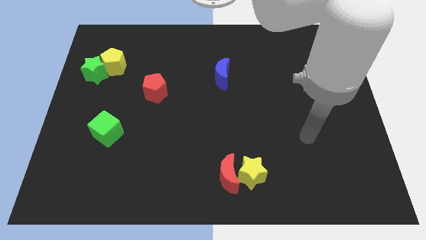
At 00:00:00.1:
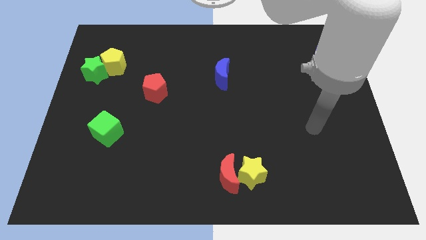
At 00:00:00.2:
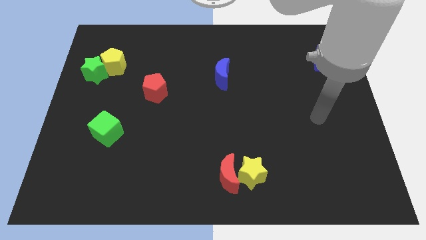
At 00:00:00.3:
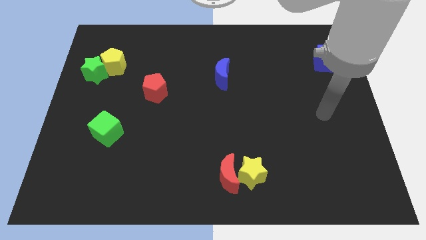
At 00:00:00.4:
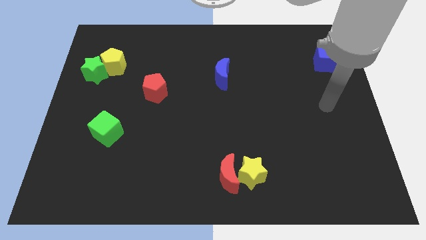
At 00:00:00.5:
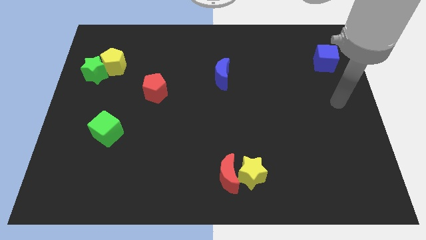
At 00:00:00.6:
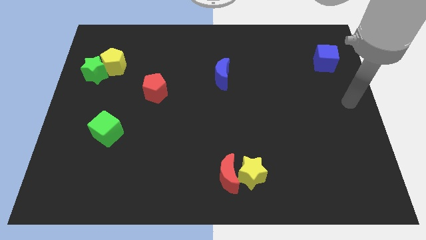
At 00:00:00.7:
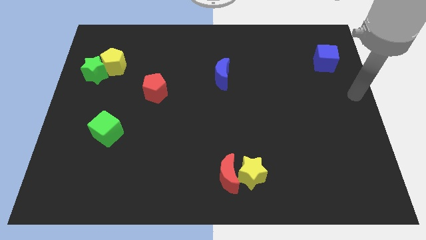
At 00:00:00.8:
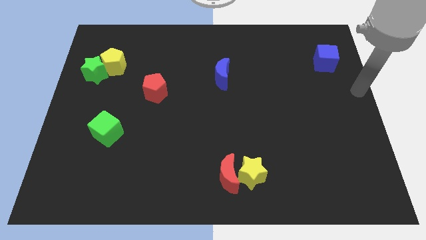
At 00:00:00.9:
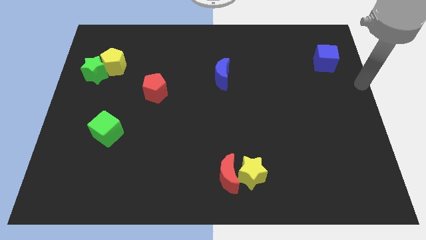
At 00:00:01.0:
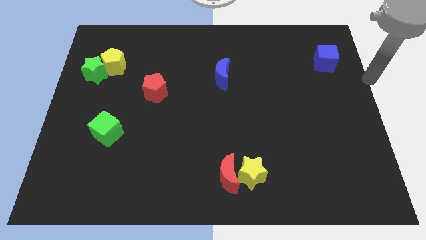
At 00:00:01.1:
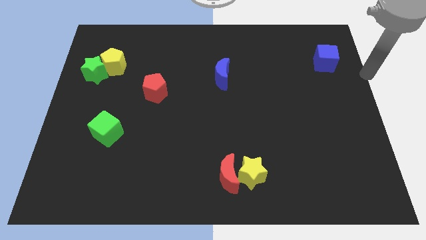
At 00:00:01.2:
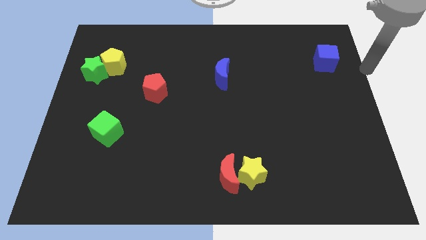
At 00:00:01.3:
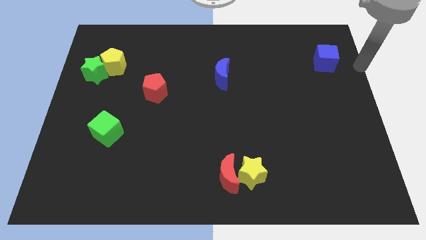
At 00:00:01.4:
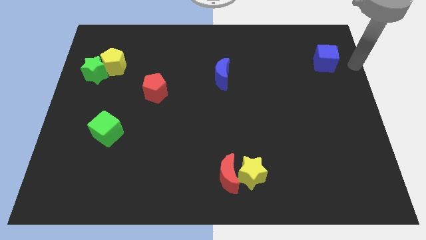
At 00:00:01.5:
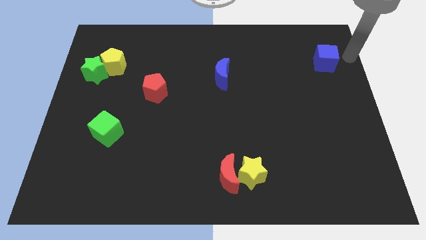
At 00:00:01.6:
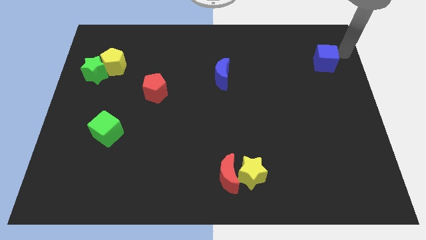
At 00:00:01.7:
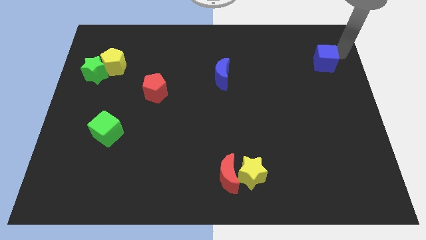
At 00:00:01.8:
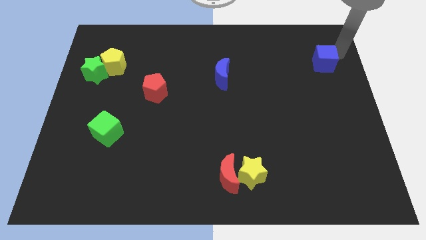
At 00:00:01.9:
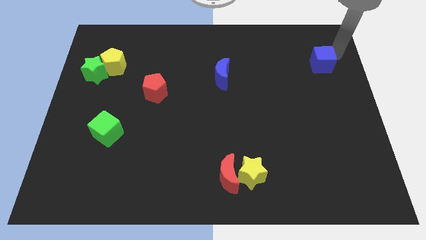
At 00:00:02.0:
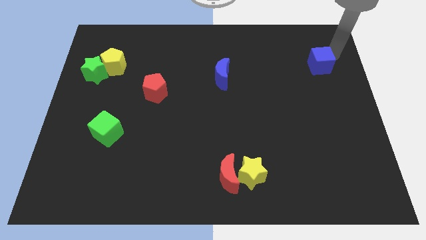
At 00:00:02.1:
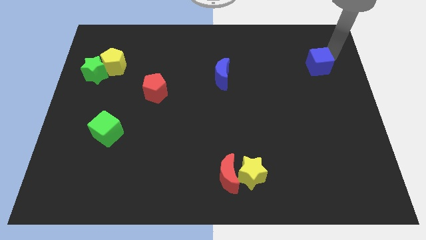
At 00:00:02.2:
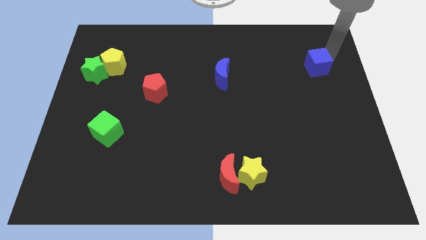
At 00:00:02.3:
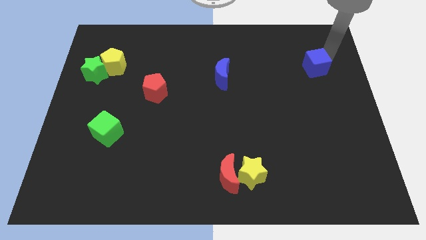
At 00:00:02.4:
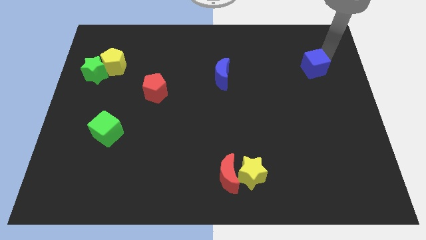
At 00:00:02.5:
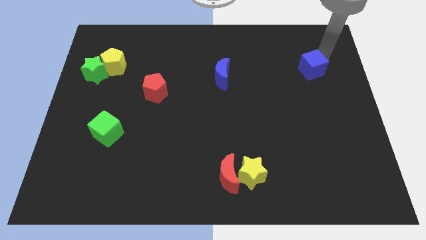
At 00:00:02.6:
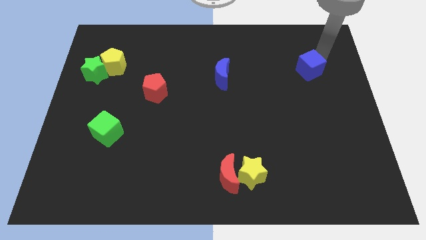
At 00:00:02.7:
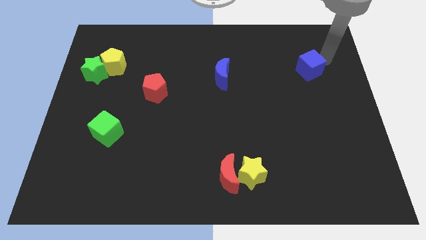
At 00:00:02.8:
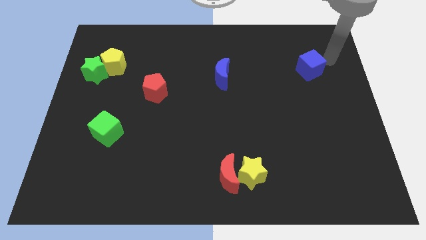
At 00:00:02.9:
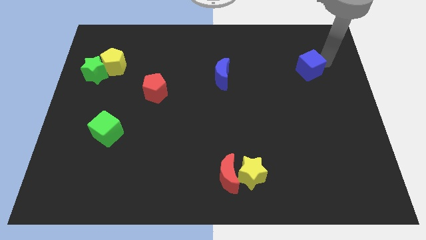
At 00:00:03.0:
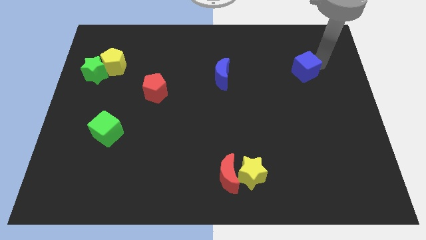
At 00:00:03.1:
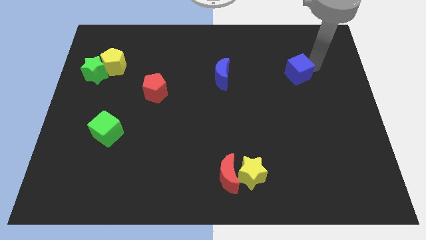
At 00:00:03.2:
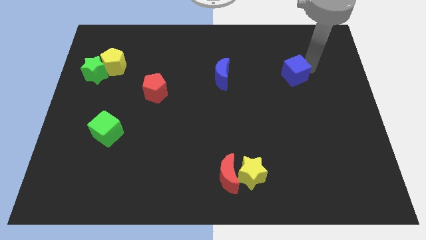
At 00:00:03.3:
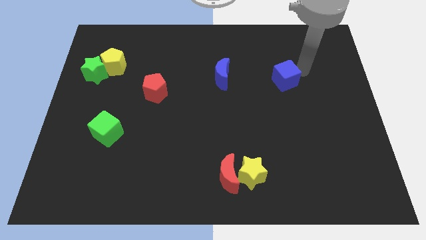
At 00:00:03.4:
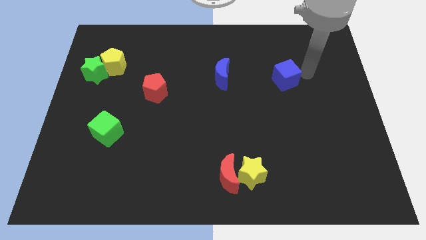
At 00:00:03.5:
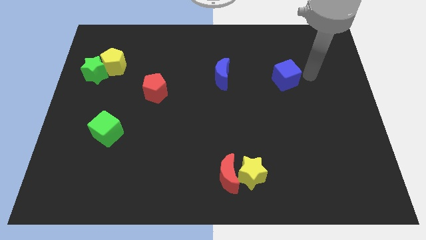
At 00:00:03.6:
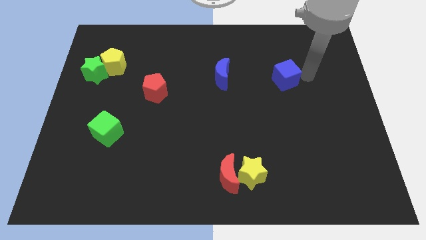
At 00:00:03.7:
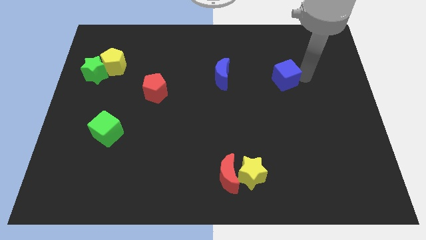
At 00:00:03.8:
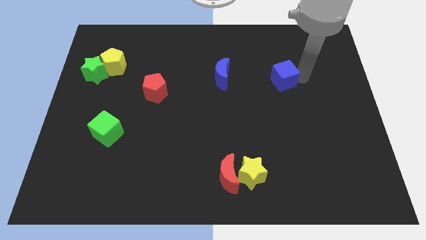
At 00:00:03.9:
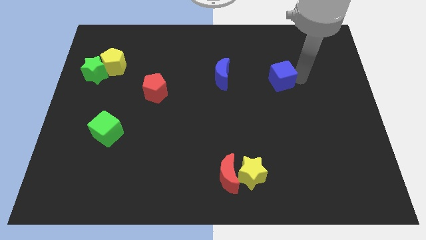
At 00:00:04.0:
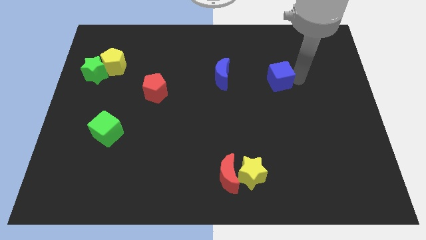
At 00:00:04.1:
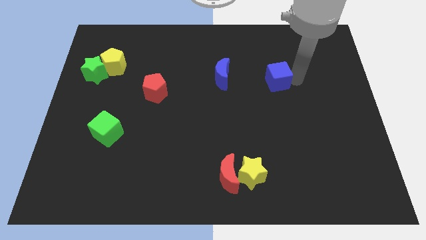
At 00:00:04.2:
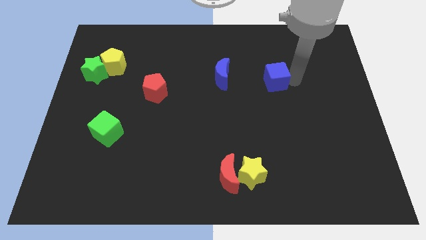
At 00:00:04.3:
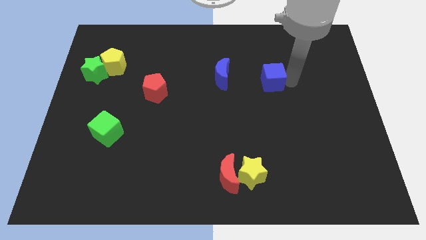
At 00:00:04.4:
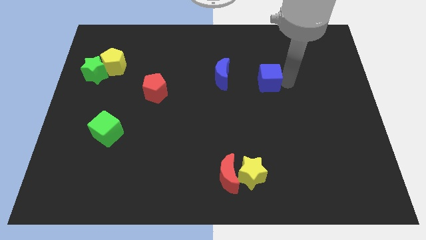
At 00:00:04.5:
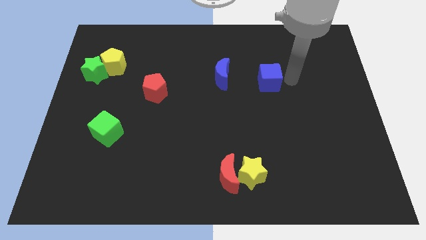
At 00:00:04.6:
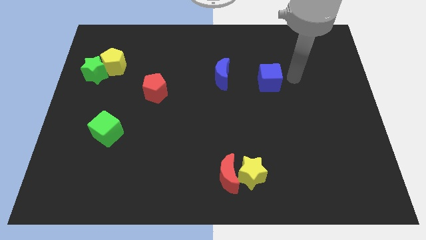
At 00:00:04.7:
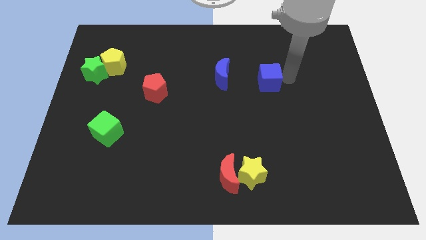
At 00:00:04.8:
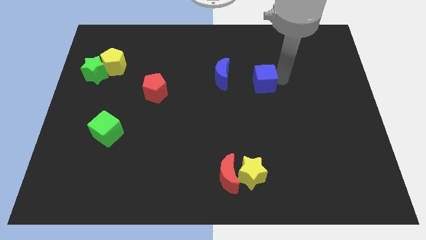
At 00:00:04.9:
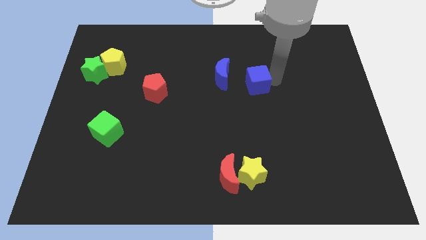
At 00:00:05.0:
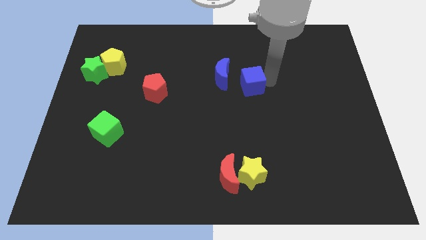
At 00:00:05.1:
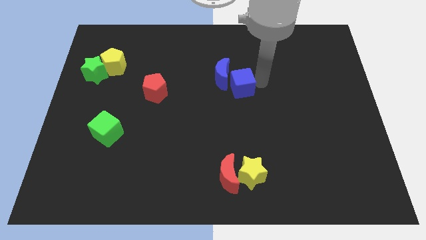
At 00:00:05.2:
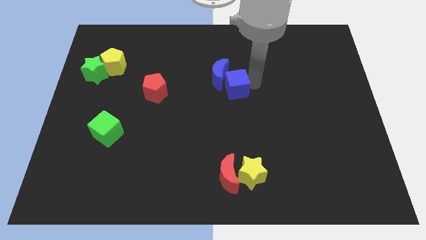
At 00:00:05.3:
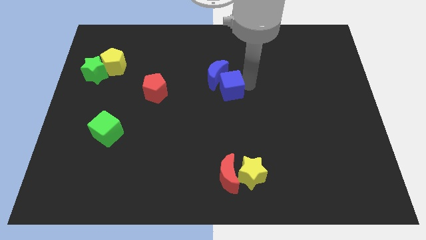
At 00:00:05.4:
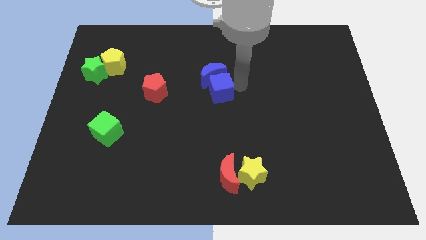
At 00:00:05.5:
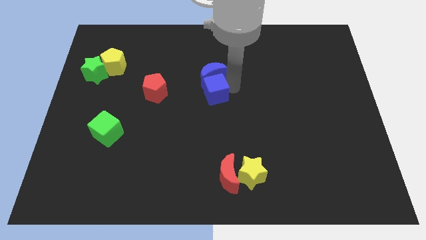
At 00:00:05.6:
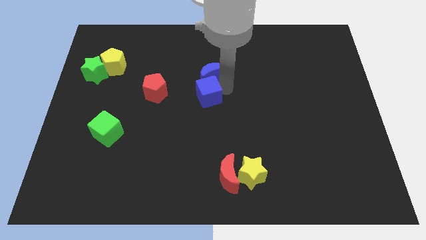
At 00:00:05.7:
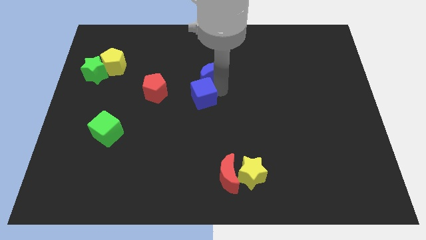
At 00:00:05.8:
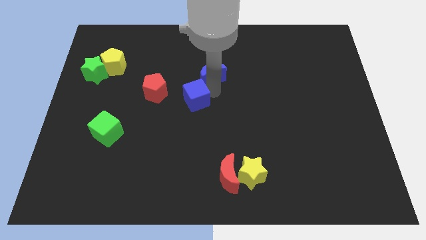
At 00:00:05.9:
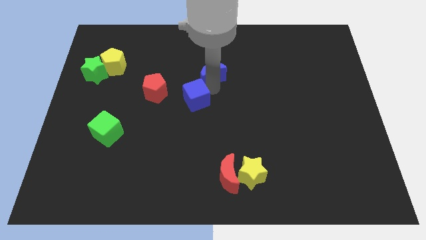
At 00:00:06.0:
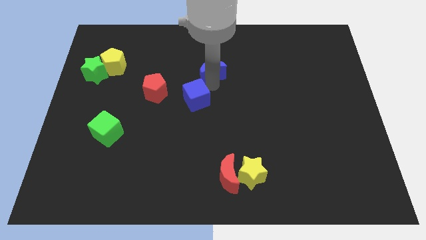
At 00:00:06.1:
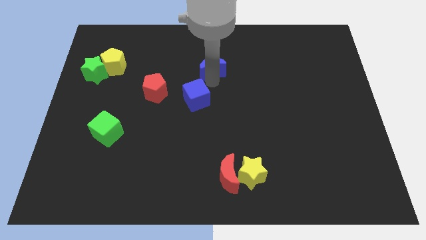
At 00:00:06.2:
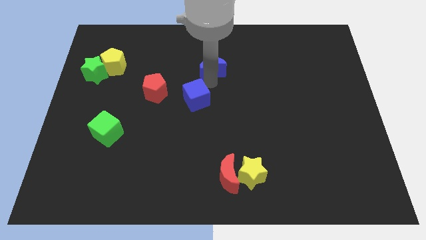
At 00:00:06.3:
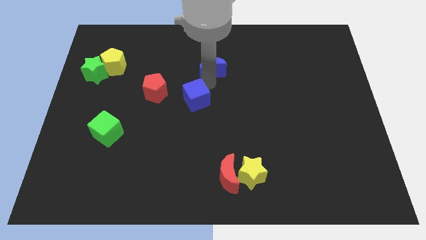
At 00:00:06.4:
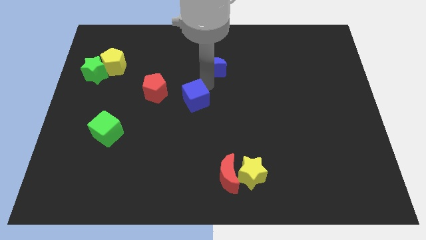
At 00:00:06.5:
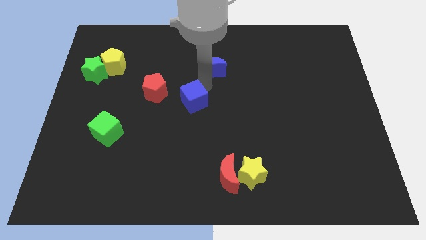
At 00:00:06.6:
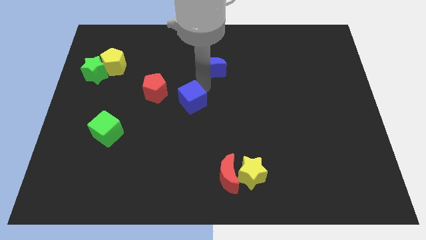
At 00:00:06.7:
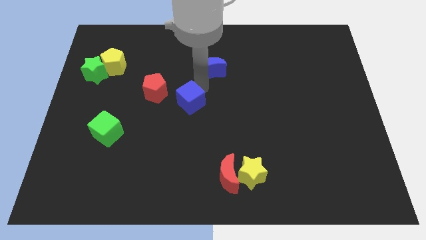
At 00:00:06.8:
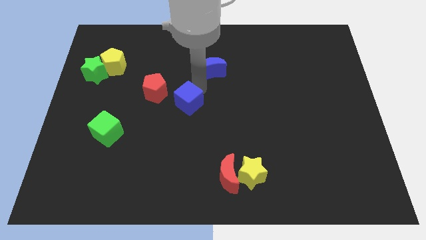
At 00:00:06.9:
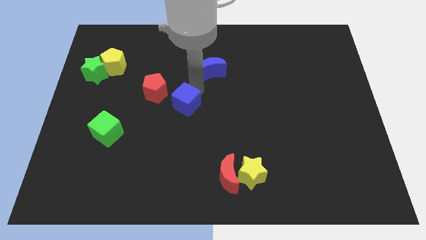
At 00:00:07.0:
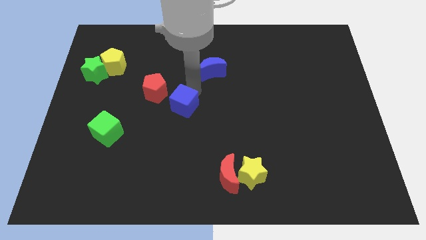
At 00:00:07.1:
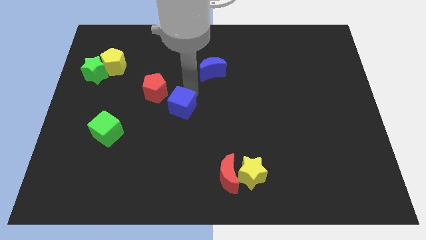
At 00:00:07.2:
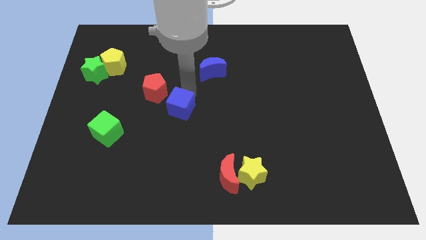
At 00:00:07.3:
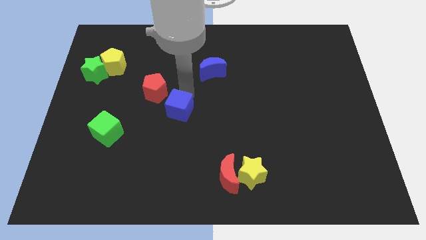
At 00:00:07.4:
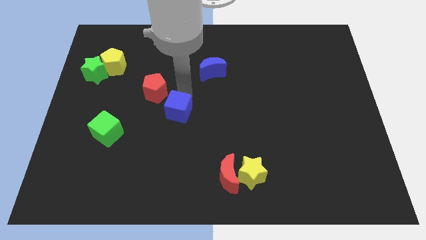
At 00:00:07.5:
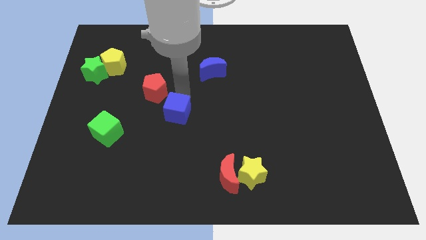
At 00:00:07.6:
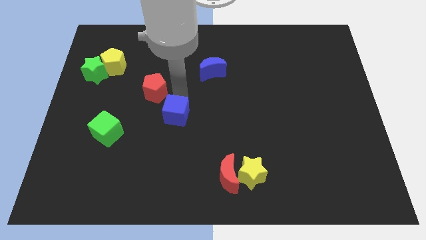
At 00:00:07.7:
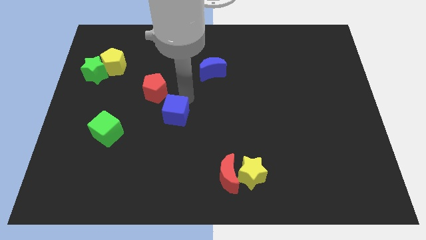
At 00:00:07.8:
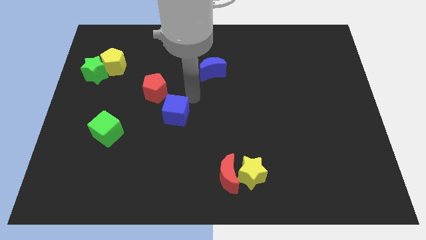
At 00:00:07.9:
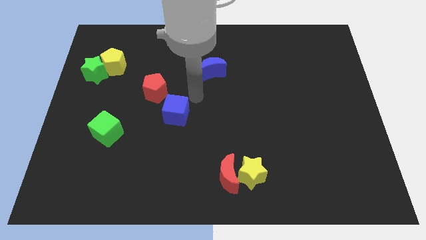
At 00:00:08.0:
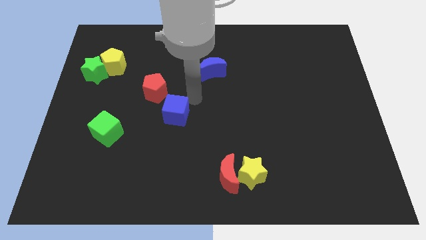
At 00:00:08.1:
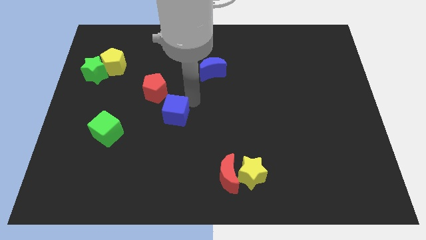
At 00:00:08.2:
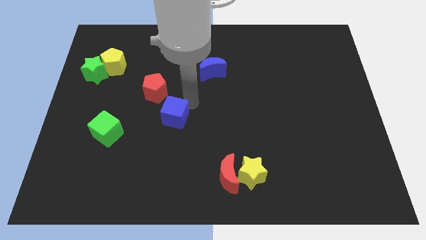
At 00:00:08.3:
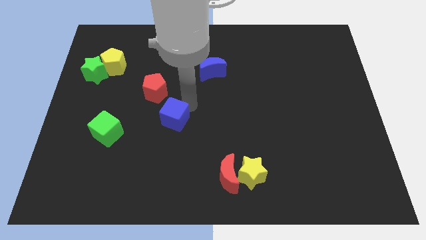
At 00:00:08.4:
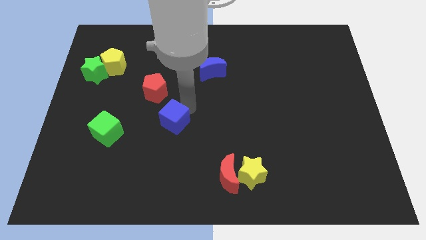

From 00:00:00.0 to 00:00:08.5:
push the blue cube just right of the green cube
